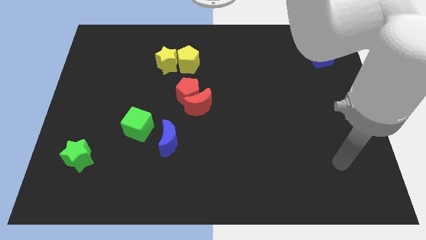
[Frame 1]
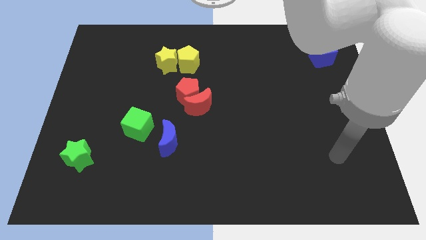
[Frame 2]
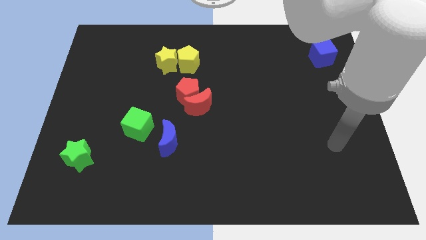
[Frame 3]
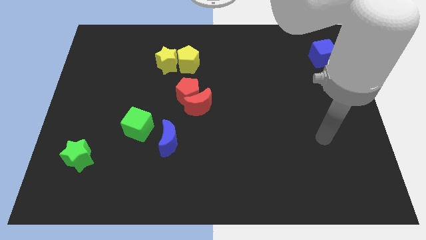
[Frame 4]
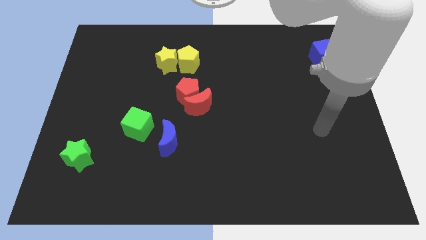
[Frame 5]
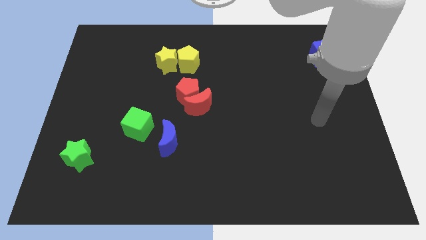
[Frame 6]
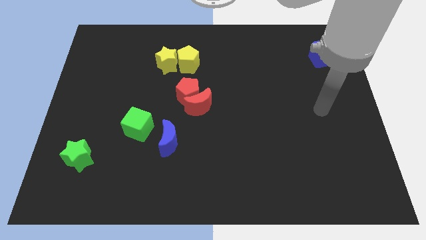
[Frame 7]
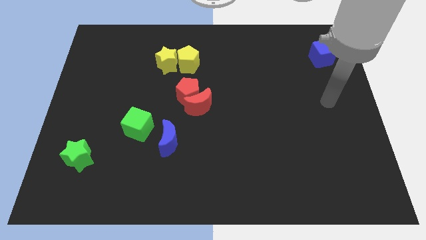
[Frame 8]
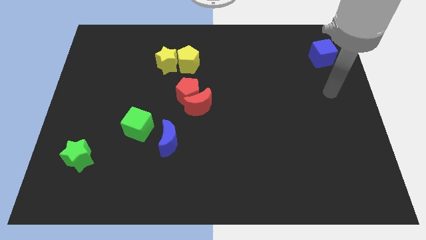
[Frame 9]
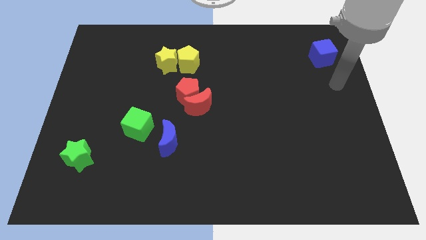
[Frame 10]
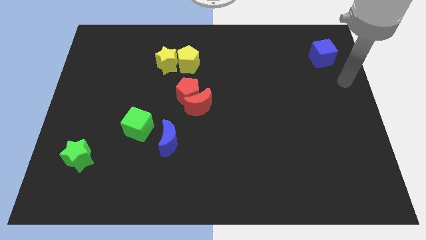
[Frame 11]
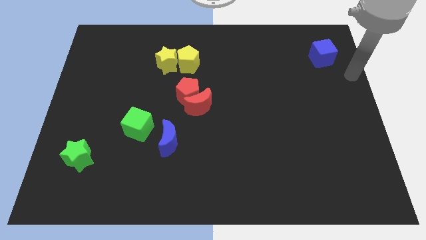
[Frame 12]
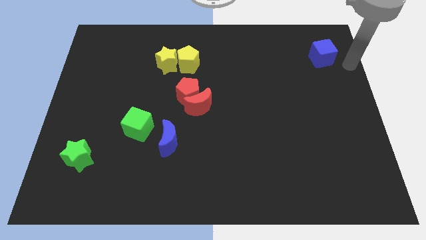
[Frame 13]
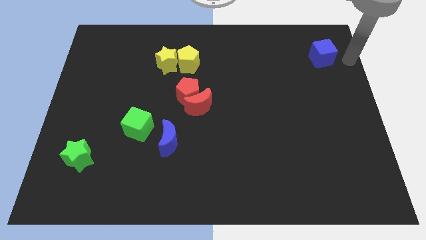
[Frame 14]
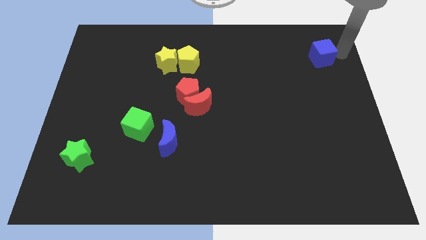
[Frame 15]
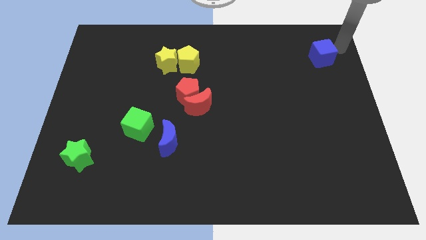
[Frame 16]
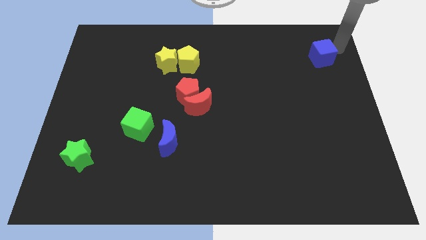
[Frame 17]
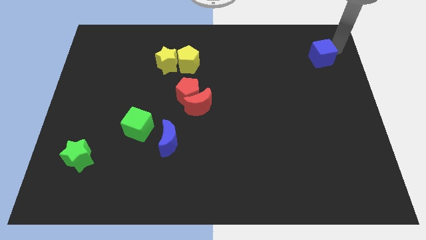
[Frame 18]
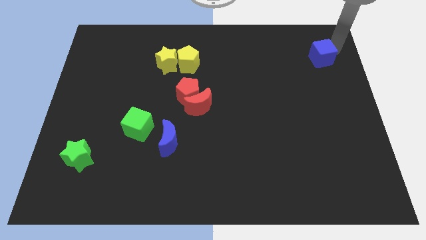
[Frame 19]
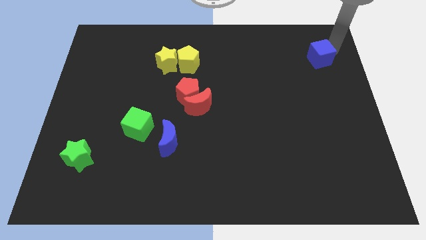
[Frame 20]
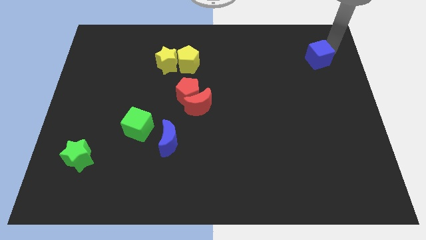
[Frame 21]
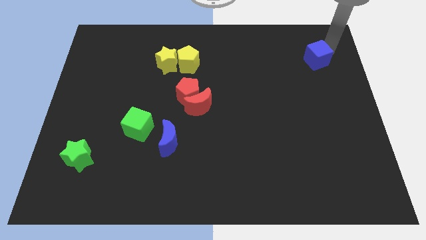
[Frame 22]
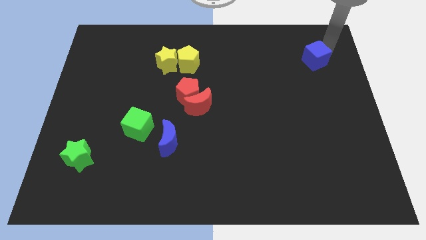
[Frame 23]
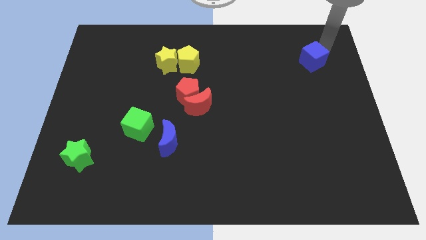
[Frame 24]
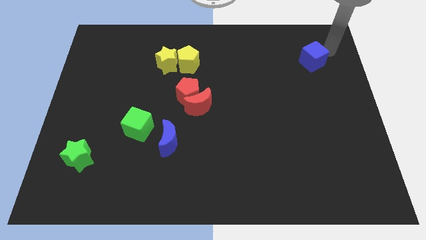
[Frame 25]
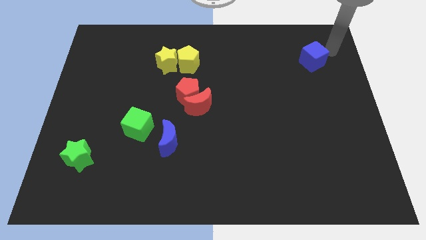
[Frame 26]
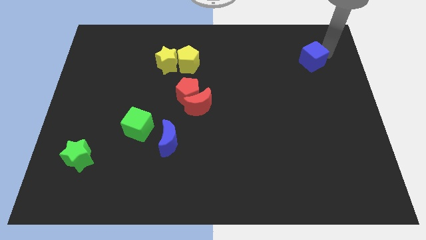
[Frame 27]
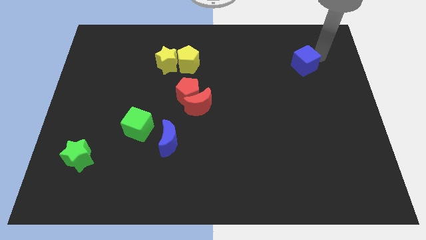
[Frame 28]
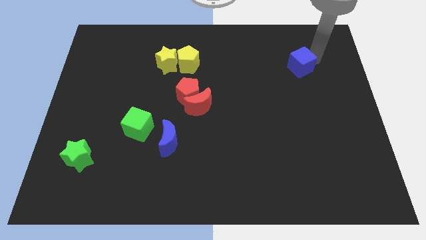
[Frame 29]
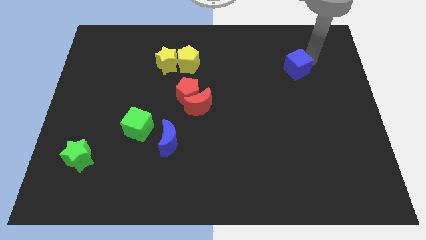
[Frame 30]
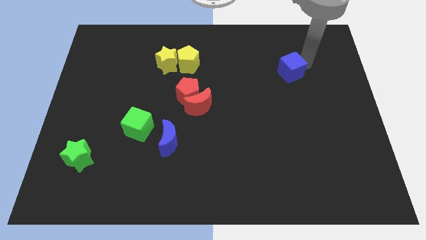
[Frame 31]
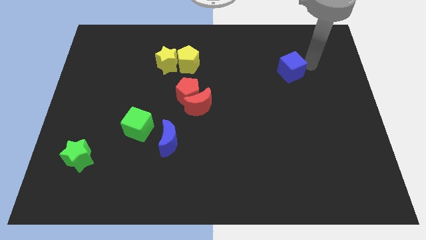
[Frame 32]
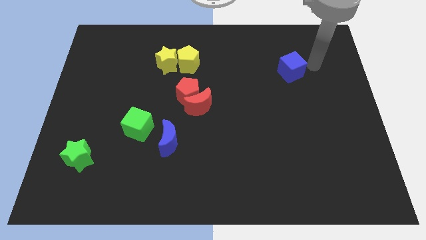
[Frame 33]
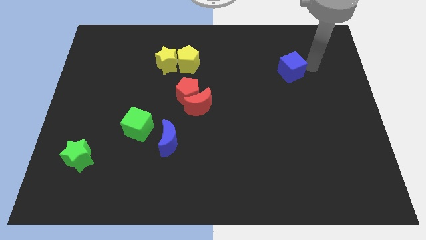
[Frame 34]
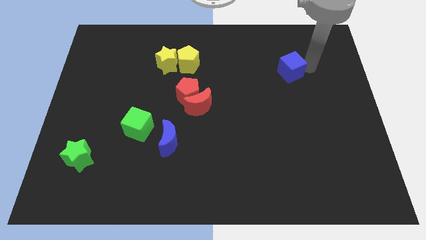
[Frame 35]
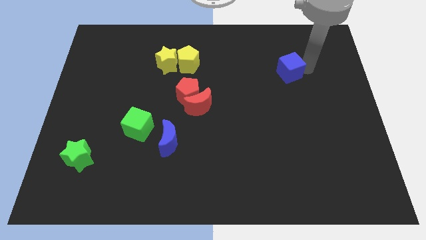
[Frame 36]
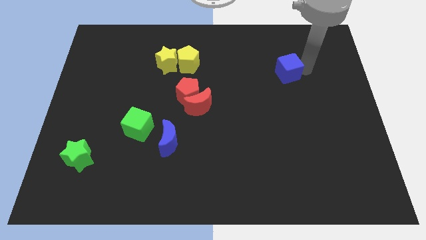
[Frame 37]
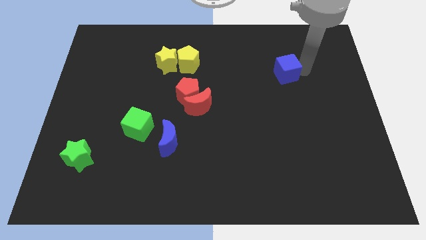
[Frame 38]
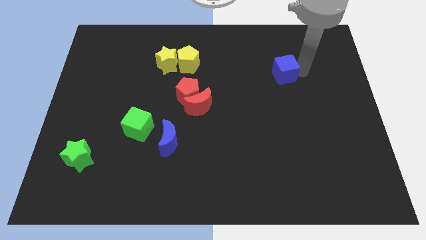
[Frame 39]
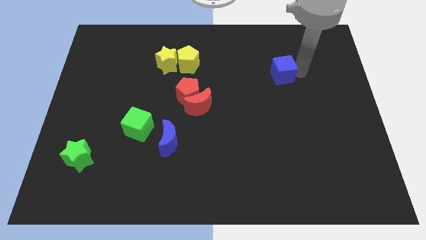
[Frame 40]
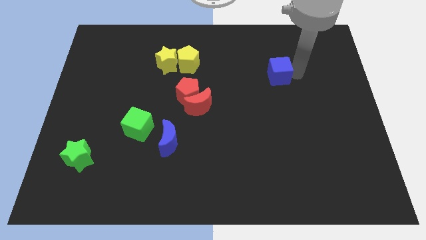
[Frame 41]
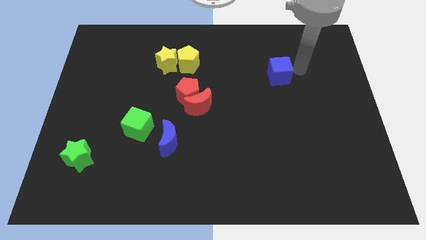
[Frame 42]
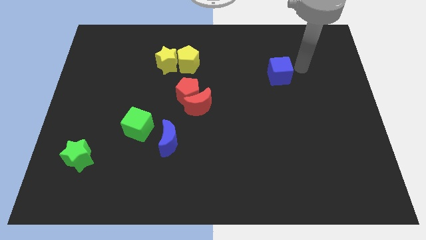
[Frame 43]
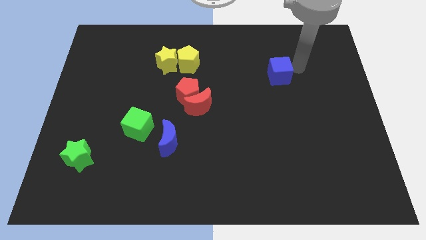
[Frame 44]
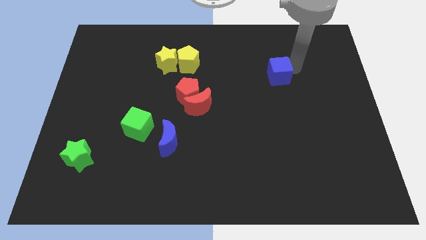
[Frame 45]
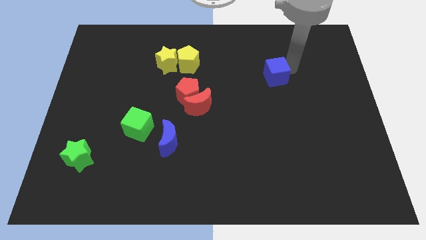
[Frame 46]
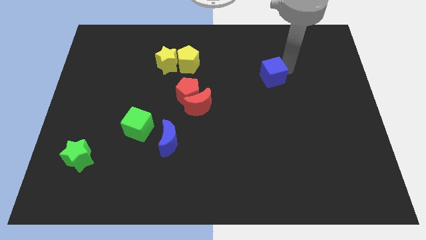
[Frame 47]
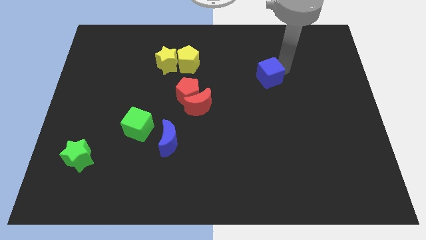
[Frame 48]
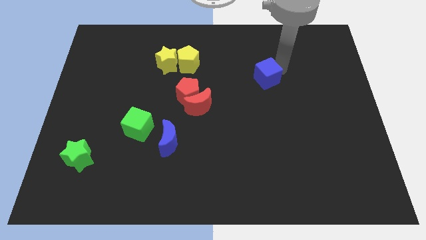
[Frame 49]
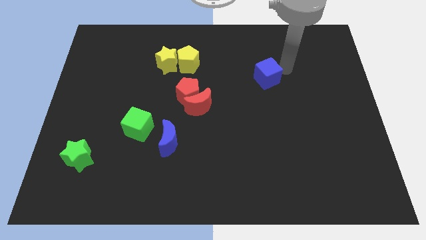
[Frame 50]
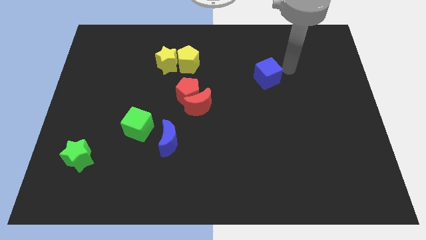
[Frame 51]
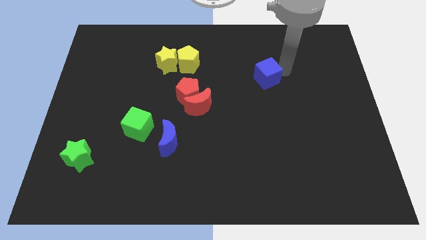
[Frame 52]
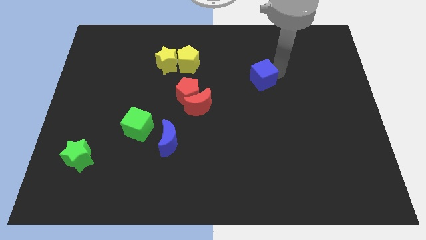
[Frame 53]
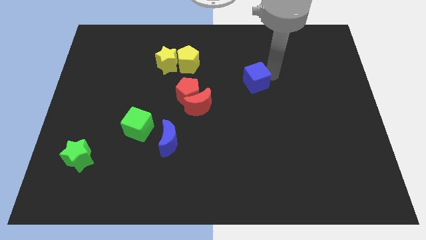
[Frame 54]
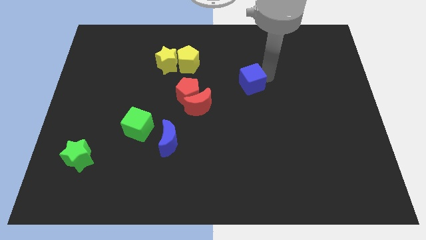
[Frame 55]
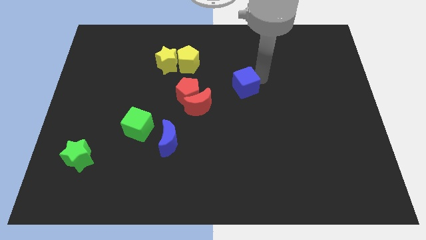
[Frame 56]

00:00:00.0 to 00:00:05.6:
move the blue cube right of the red pentagon

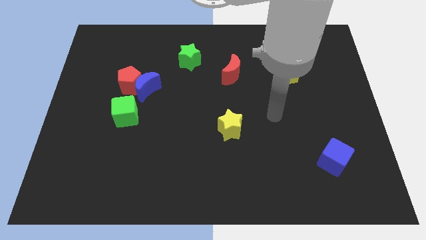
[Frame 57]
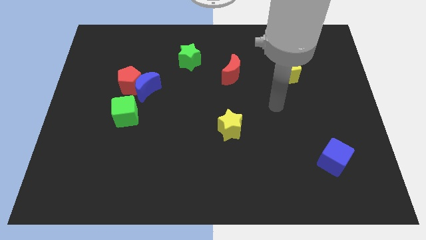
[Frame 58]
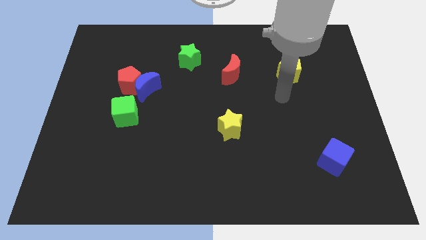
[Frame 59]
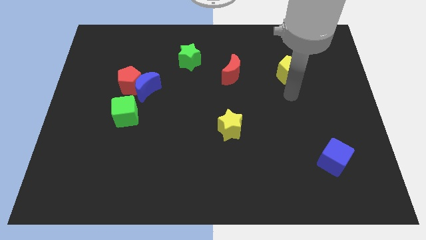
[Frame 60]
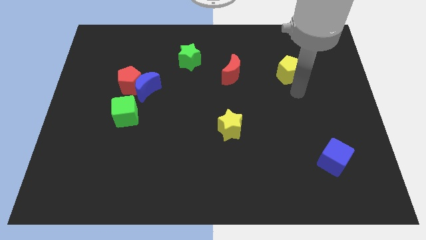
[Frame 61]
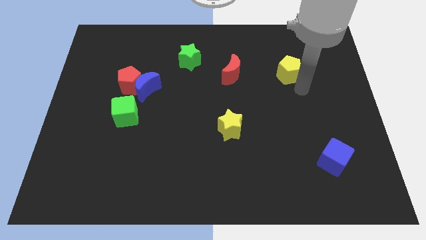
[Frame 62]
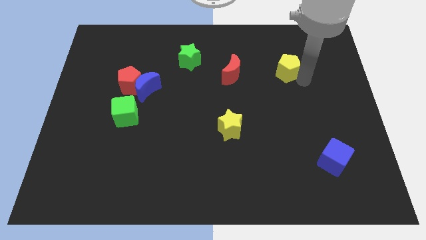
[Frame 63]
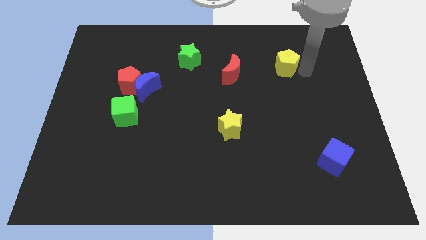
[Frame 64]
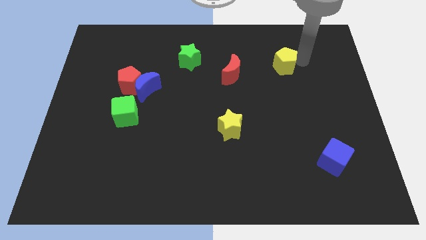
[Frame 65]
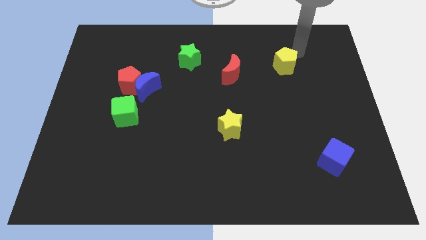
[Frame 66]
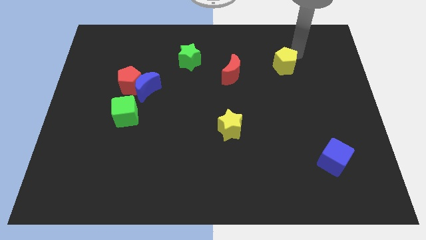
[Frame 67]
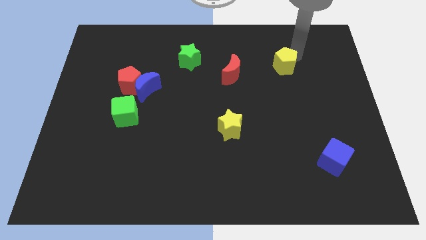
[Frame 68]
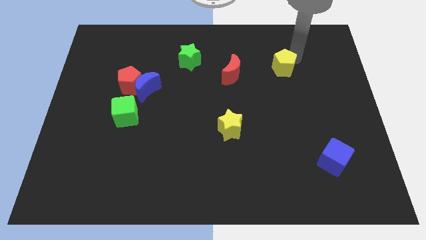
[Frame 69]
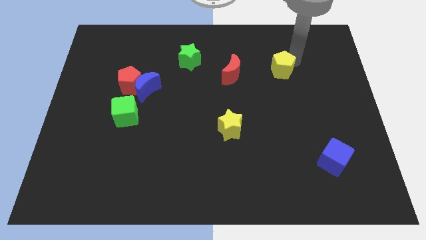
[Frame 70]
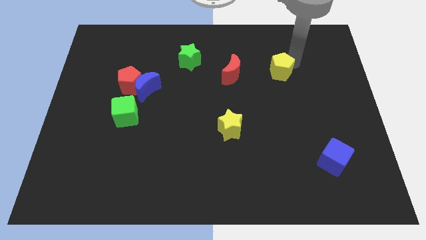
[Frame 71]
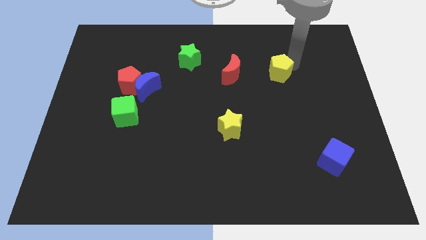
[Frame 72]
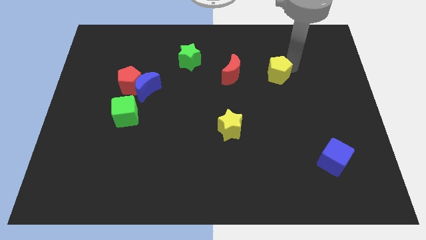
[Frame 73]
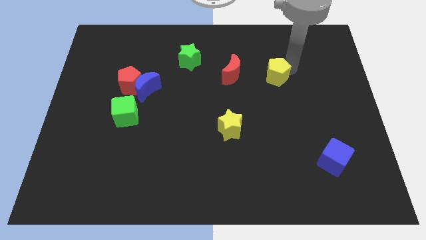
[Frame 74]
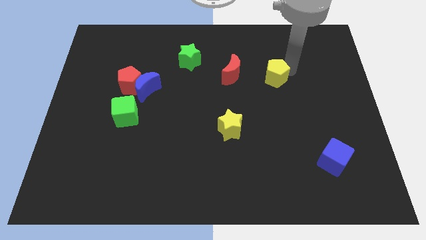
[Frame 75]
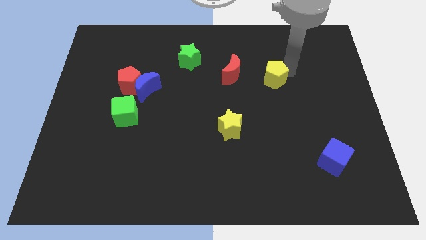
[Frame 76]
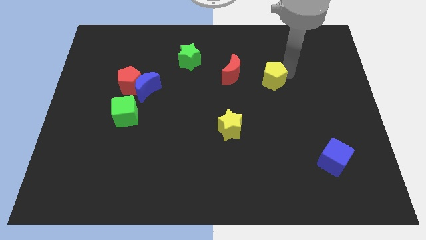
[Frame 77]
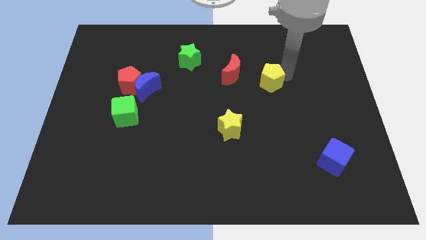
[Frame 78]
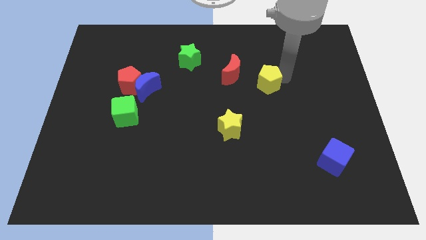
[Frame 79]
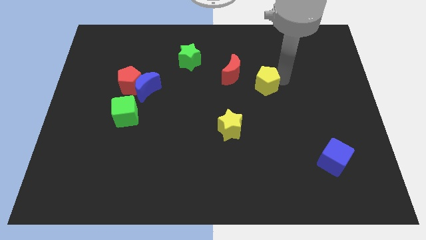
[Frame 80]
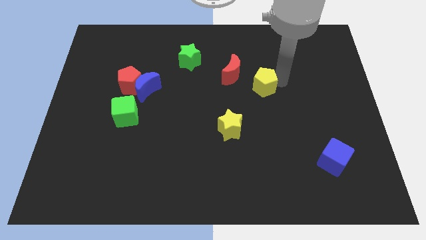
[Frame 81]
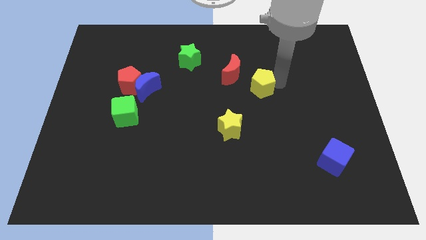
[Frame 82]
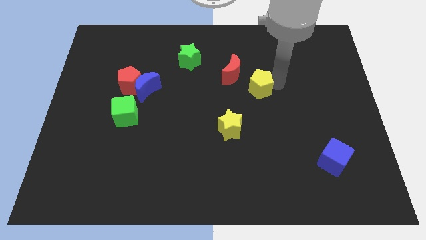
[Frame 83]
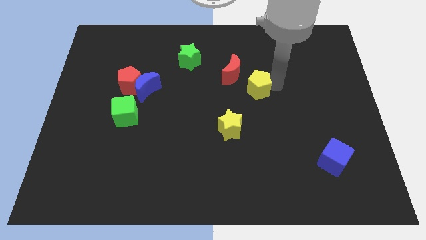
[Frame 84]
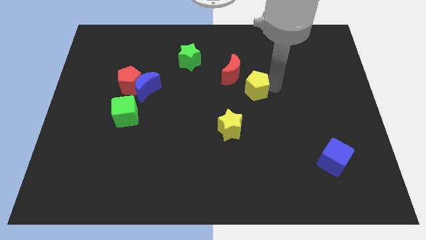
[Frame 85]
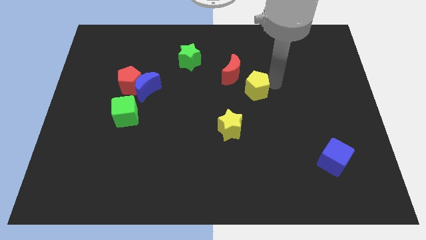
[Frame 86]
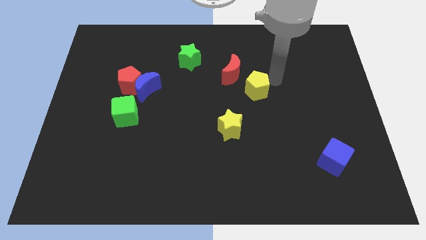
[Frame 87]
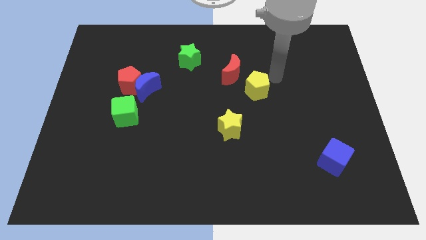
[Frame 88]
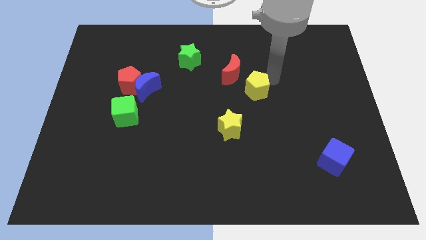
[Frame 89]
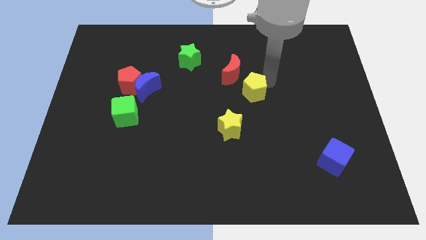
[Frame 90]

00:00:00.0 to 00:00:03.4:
slide the yellow pentagon below the red moon
